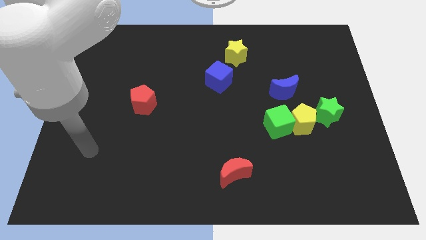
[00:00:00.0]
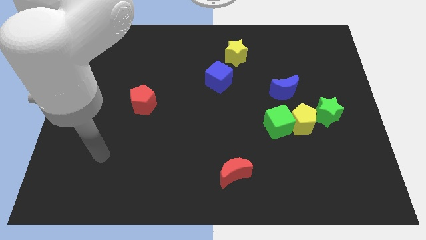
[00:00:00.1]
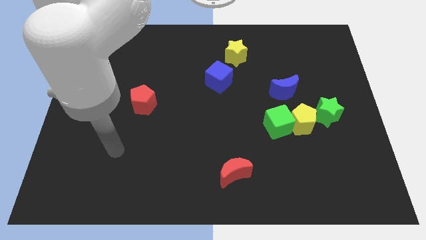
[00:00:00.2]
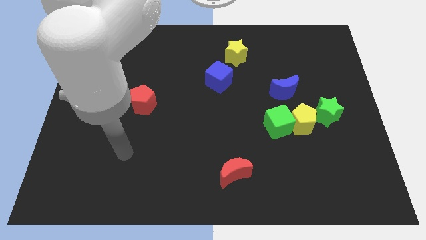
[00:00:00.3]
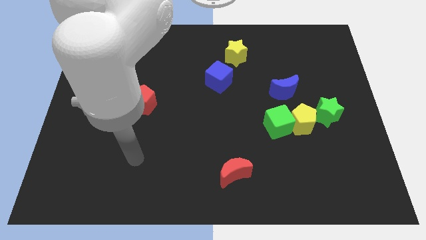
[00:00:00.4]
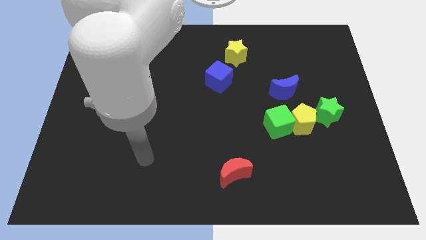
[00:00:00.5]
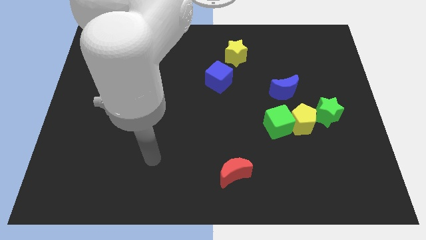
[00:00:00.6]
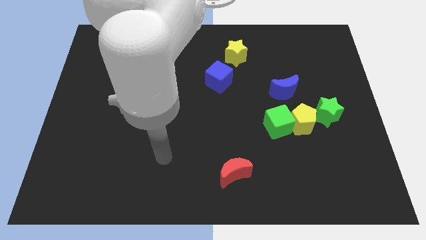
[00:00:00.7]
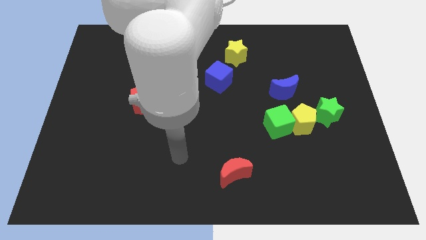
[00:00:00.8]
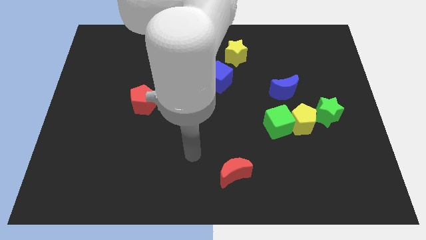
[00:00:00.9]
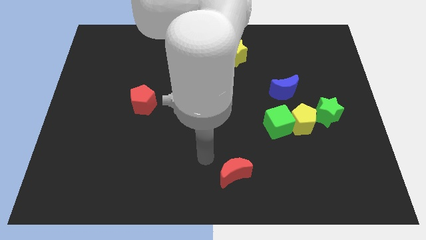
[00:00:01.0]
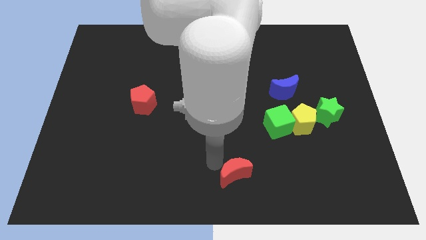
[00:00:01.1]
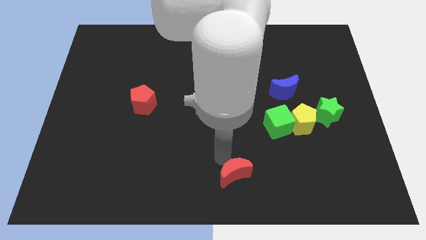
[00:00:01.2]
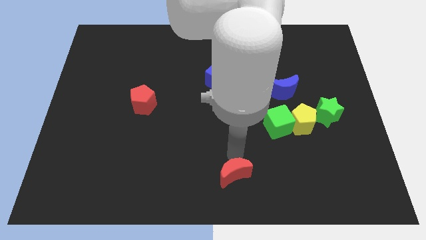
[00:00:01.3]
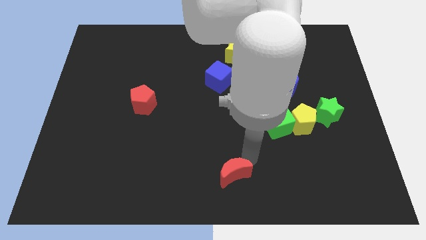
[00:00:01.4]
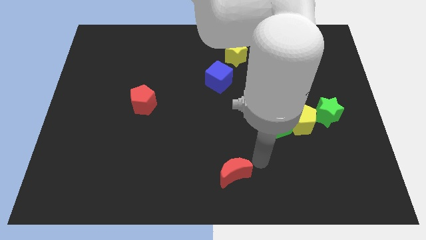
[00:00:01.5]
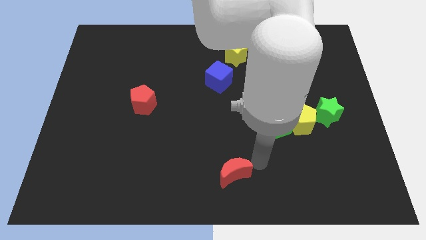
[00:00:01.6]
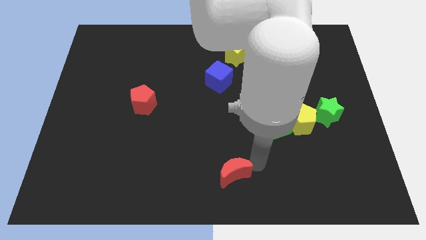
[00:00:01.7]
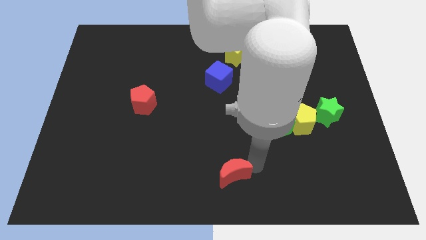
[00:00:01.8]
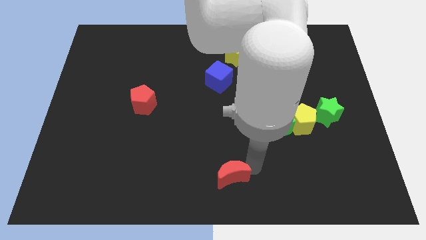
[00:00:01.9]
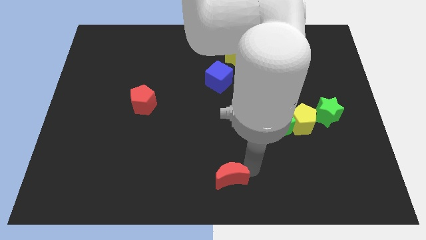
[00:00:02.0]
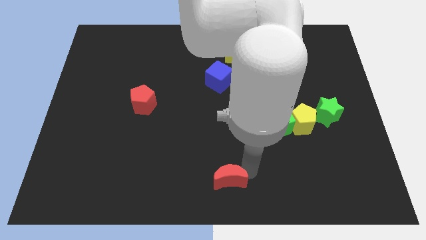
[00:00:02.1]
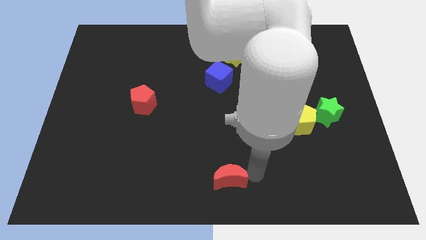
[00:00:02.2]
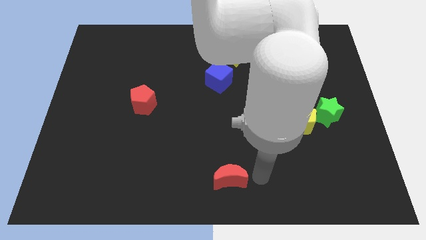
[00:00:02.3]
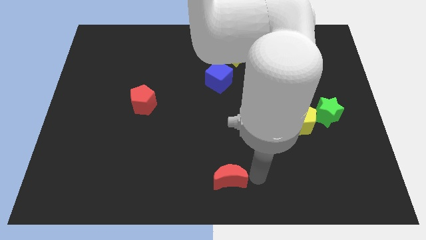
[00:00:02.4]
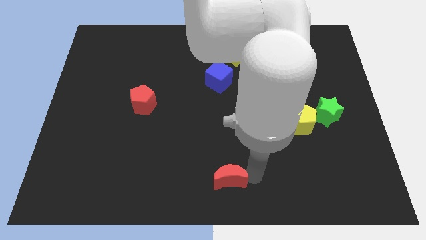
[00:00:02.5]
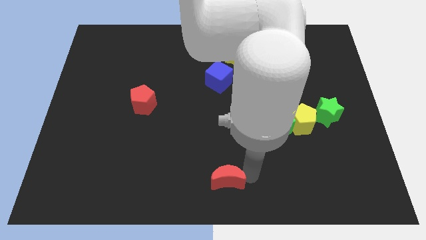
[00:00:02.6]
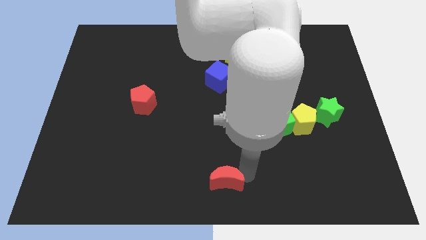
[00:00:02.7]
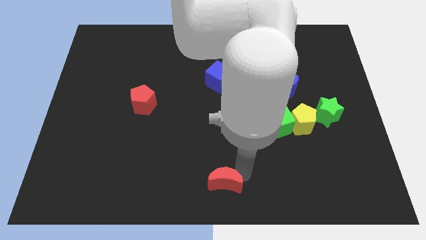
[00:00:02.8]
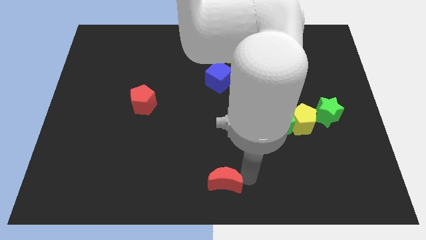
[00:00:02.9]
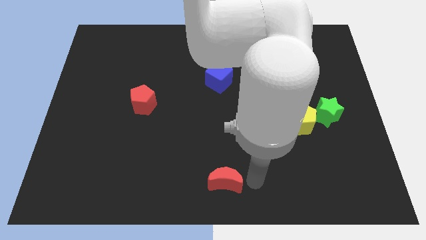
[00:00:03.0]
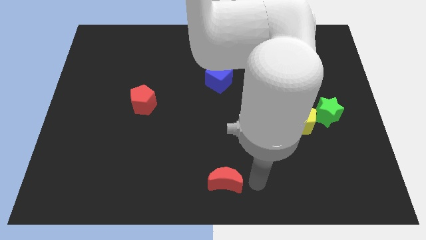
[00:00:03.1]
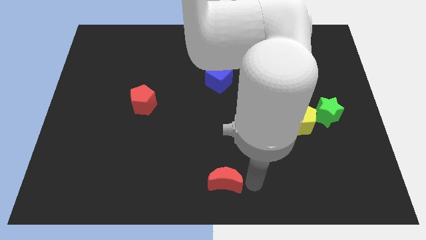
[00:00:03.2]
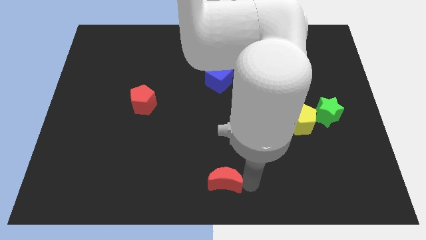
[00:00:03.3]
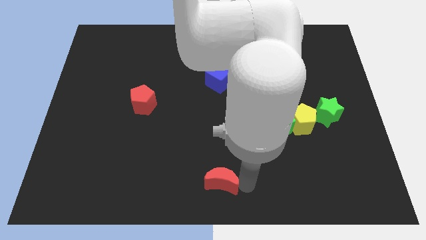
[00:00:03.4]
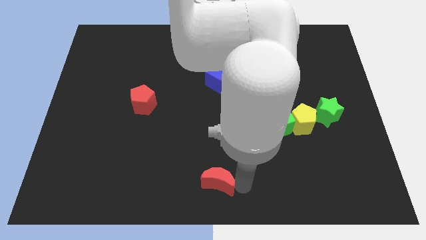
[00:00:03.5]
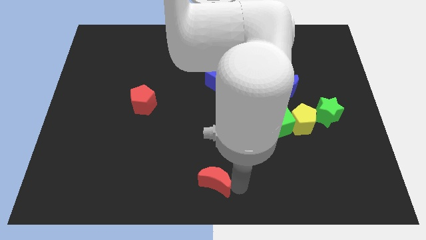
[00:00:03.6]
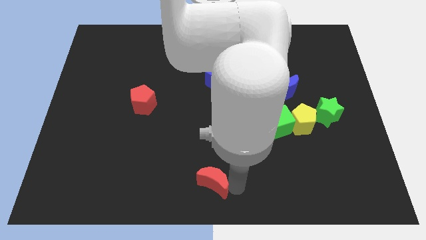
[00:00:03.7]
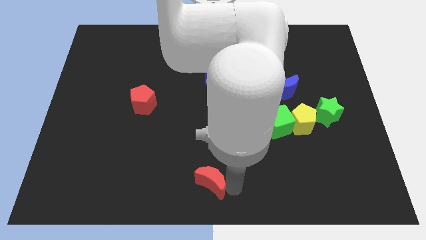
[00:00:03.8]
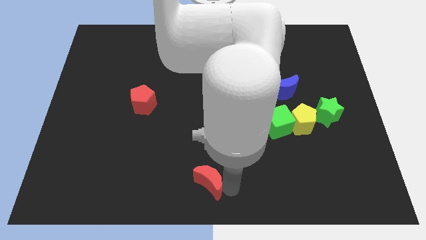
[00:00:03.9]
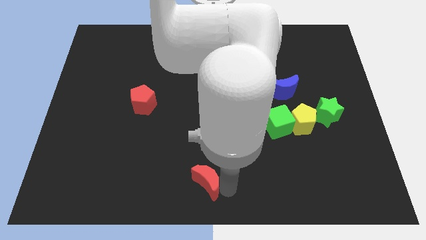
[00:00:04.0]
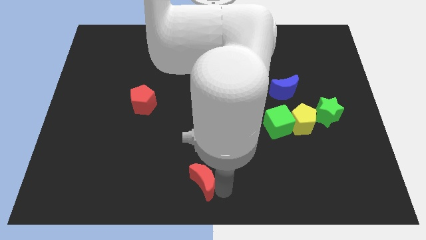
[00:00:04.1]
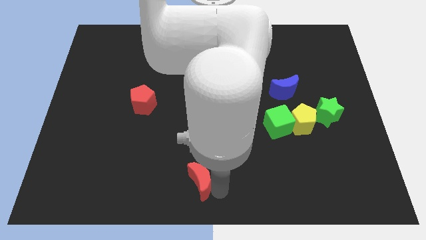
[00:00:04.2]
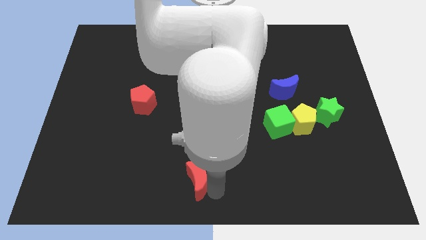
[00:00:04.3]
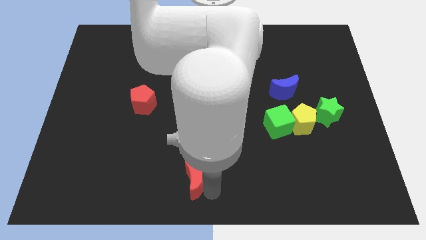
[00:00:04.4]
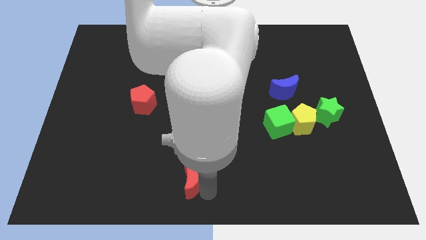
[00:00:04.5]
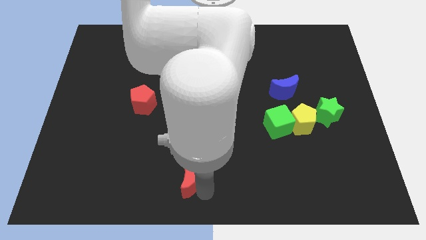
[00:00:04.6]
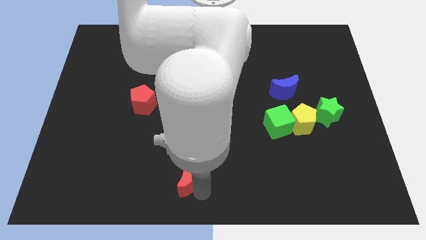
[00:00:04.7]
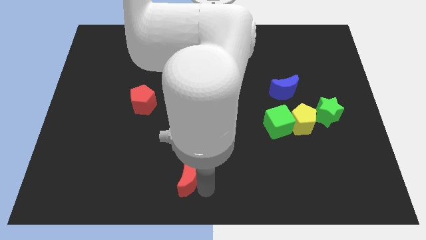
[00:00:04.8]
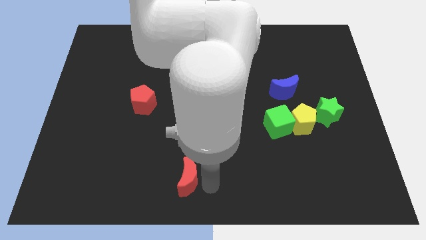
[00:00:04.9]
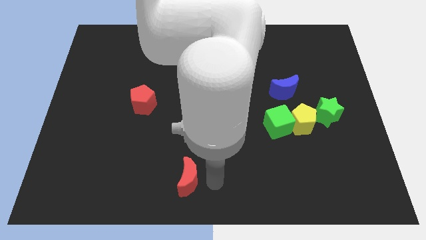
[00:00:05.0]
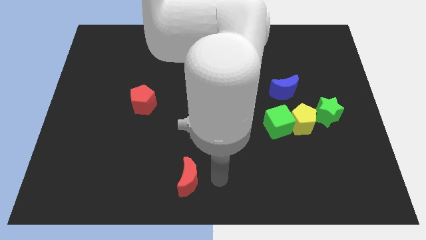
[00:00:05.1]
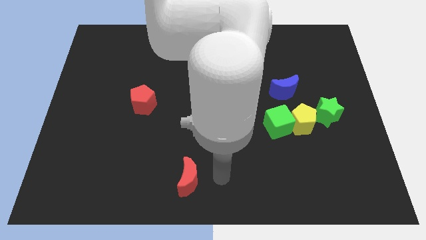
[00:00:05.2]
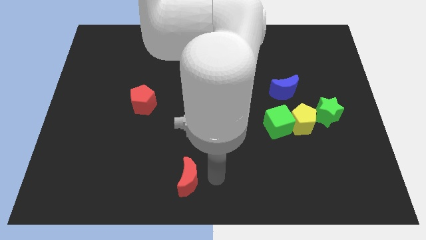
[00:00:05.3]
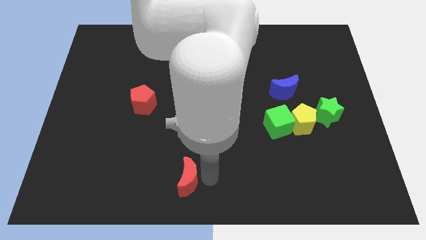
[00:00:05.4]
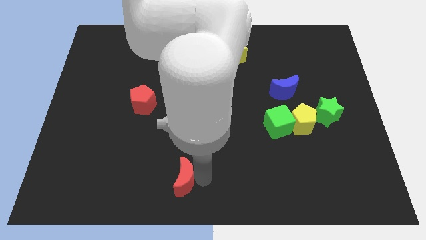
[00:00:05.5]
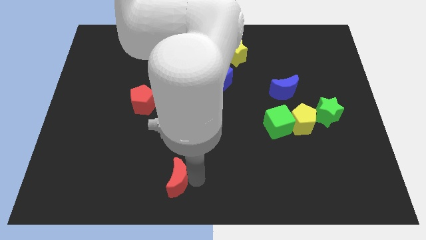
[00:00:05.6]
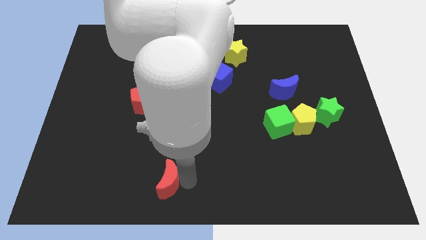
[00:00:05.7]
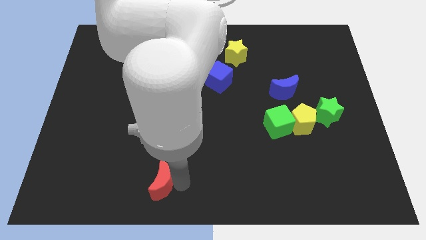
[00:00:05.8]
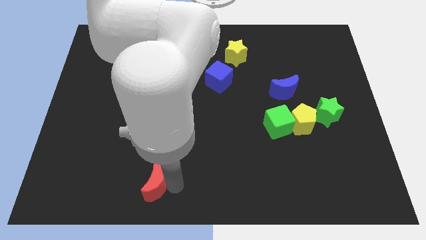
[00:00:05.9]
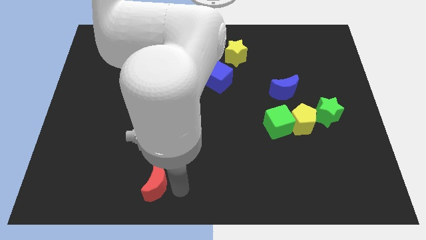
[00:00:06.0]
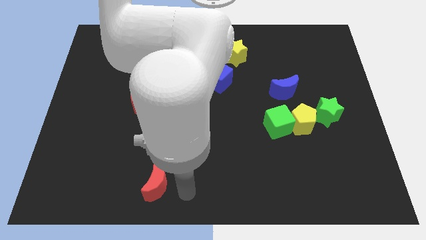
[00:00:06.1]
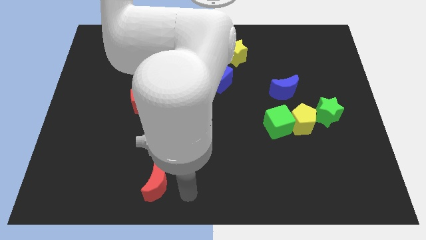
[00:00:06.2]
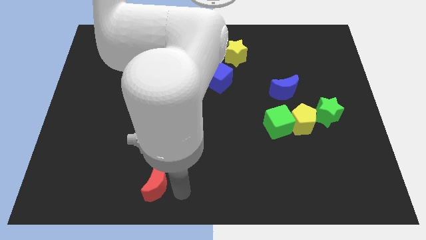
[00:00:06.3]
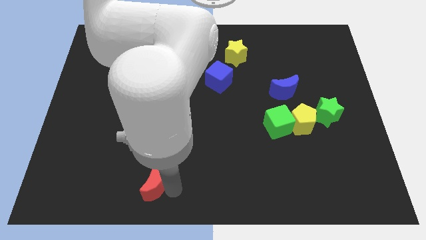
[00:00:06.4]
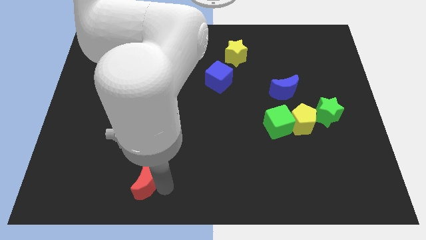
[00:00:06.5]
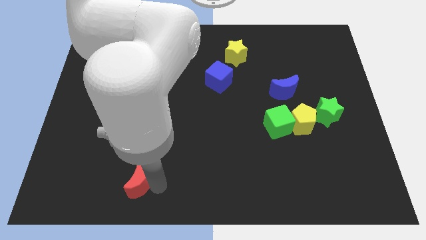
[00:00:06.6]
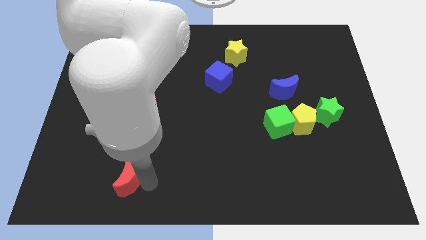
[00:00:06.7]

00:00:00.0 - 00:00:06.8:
move the red moon left

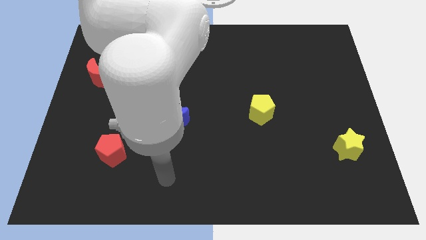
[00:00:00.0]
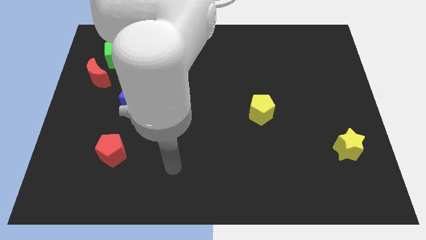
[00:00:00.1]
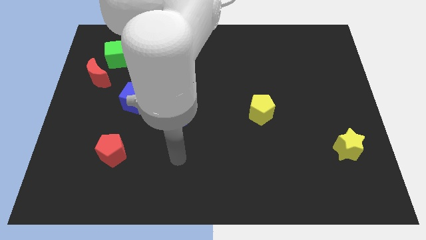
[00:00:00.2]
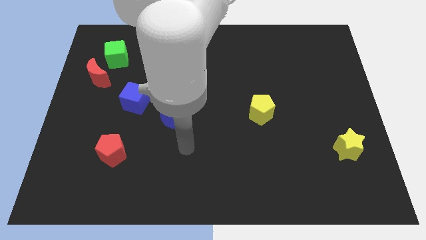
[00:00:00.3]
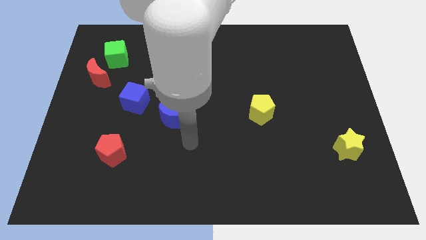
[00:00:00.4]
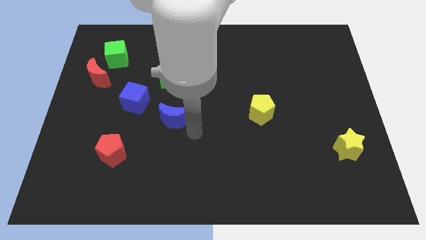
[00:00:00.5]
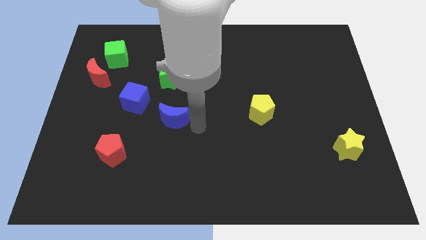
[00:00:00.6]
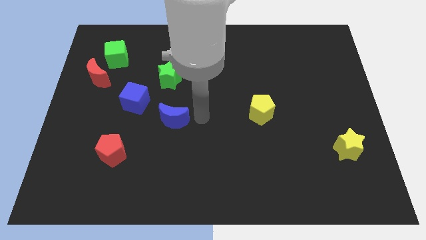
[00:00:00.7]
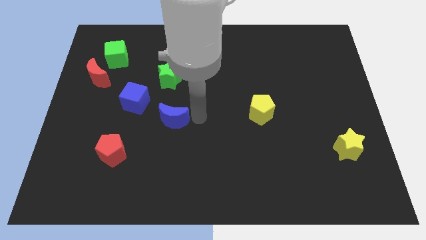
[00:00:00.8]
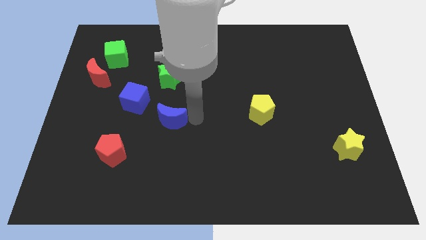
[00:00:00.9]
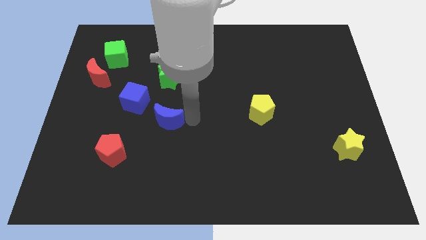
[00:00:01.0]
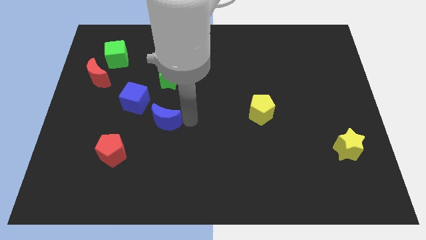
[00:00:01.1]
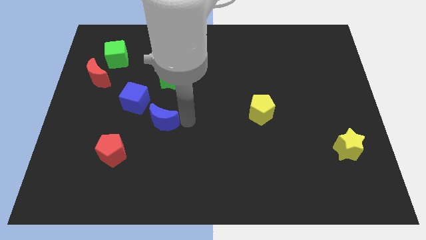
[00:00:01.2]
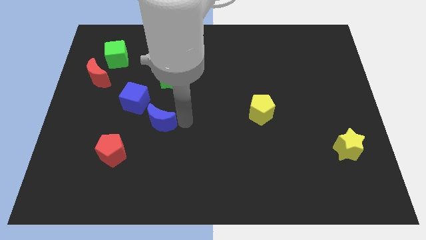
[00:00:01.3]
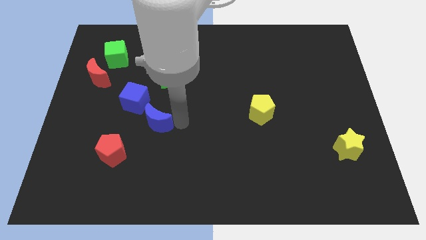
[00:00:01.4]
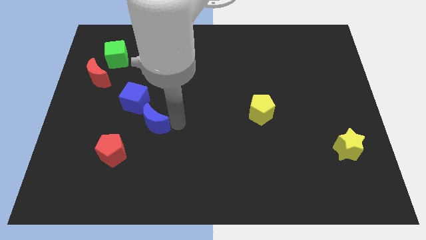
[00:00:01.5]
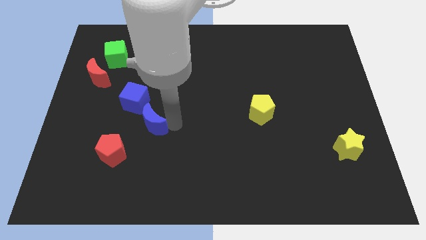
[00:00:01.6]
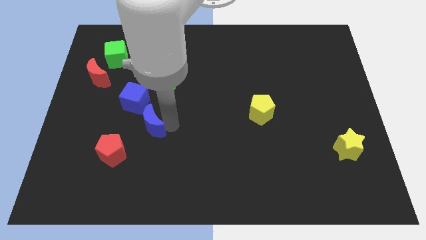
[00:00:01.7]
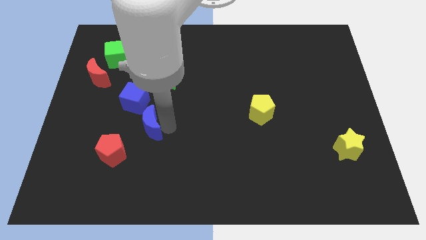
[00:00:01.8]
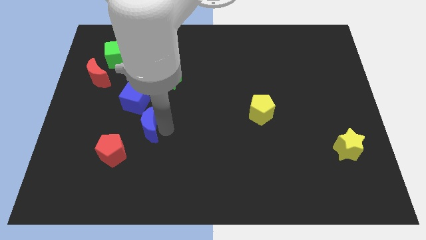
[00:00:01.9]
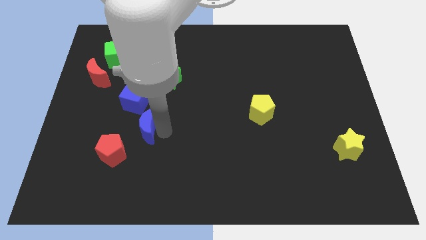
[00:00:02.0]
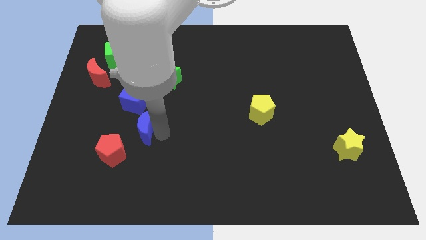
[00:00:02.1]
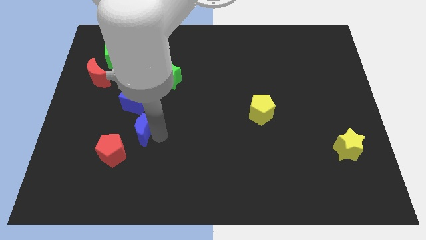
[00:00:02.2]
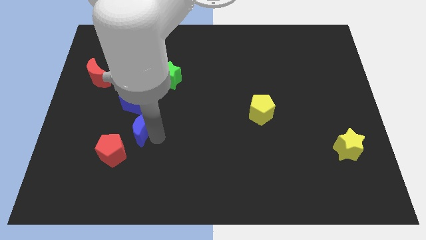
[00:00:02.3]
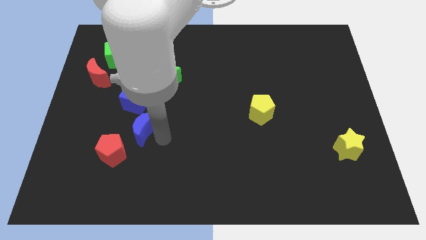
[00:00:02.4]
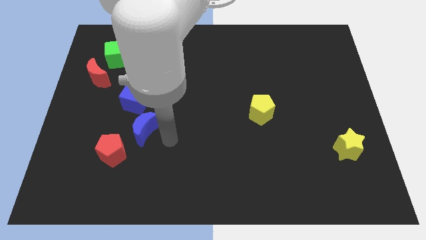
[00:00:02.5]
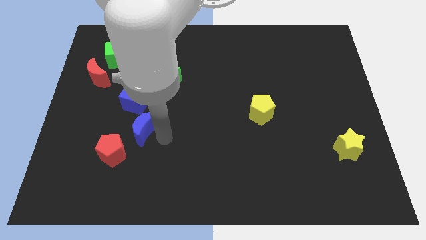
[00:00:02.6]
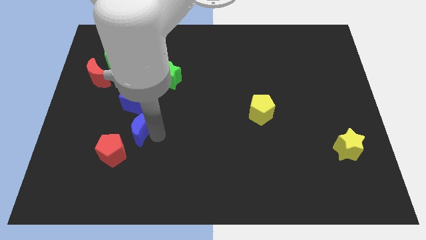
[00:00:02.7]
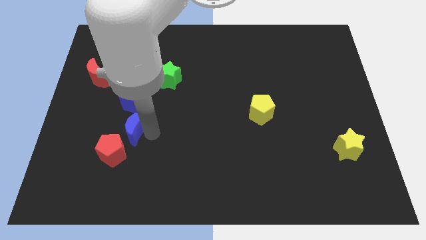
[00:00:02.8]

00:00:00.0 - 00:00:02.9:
push the blue moon a bit left
